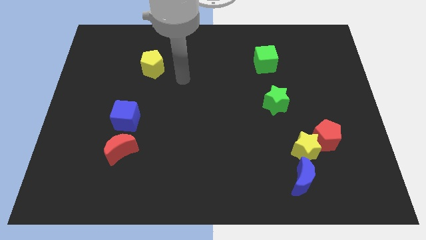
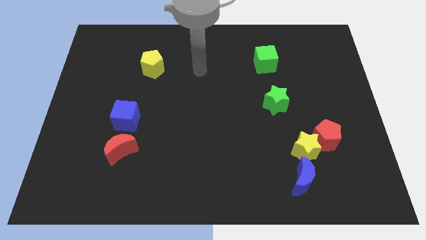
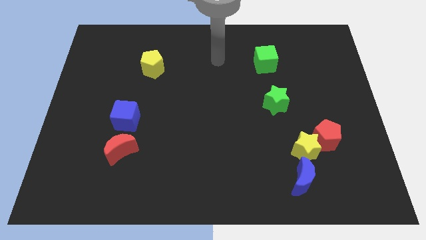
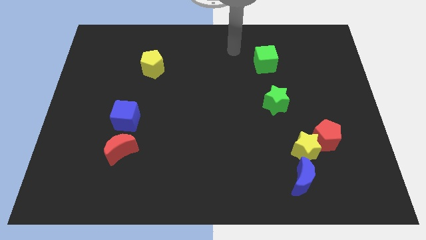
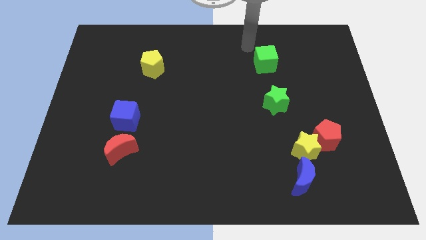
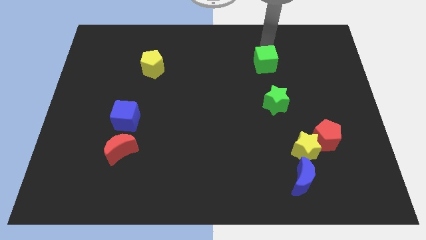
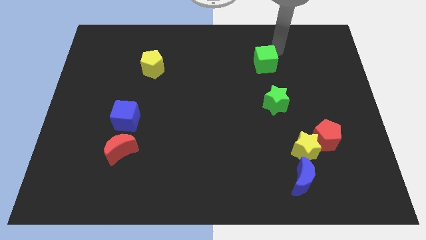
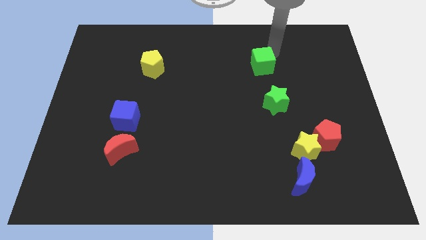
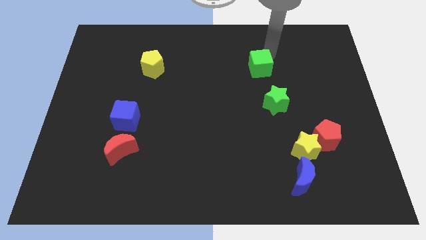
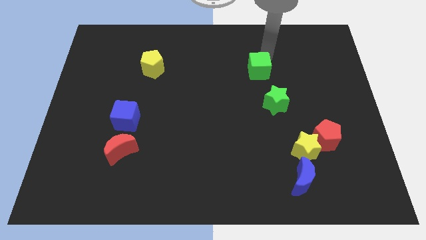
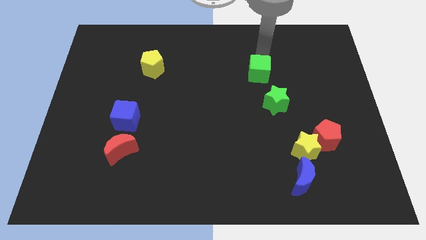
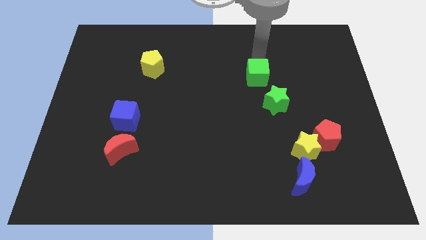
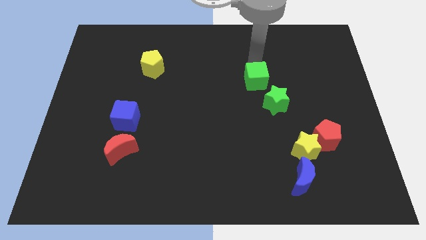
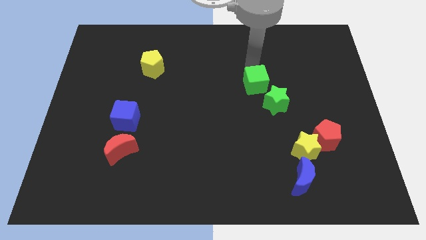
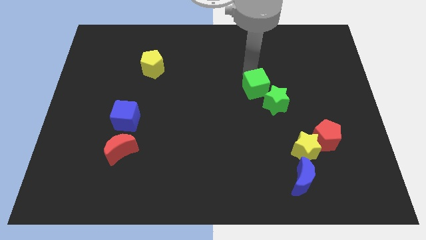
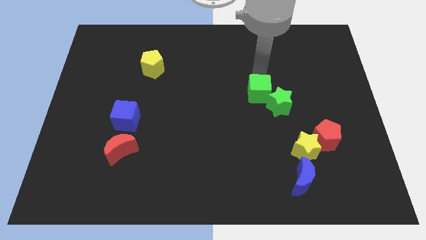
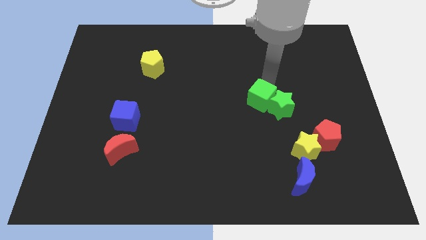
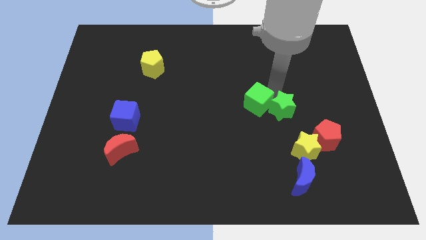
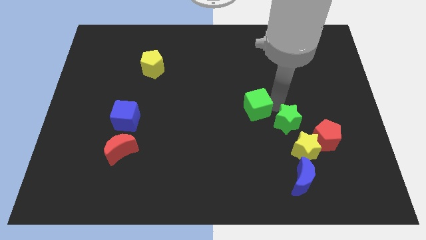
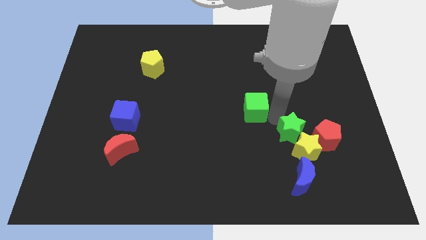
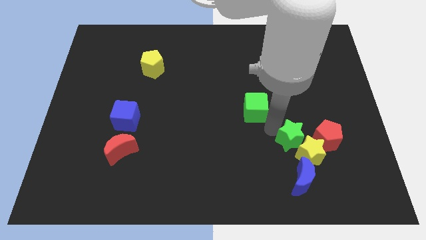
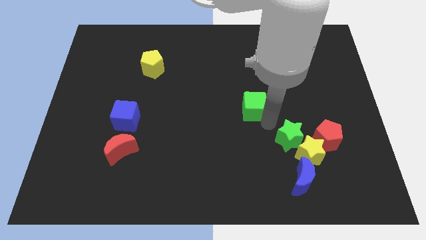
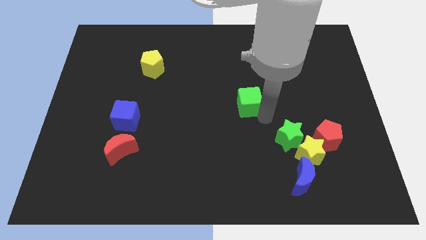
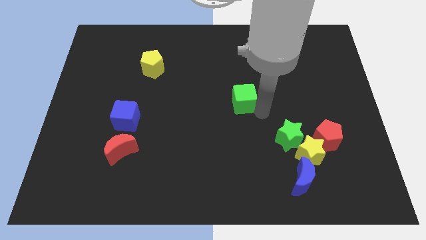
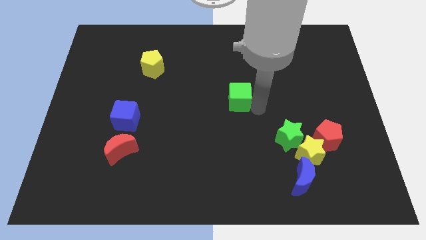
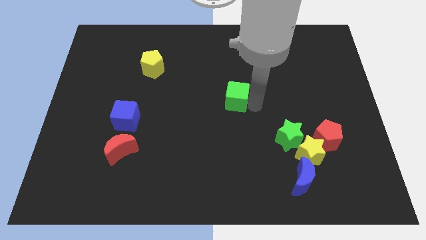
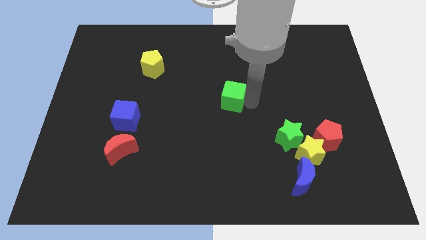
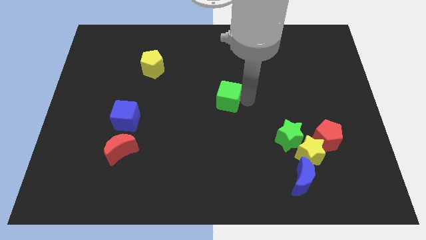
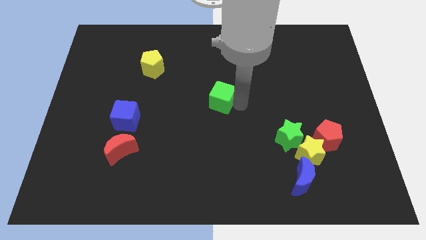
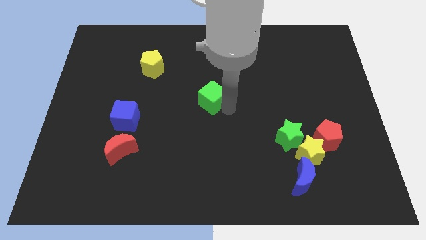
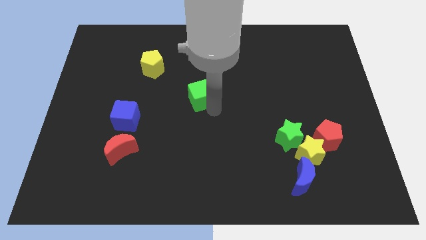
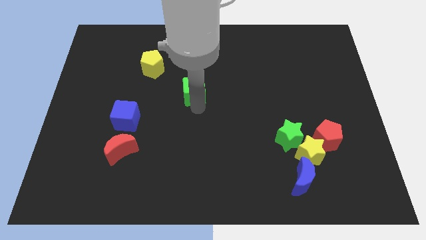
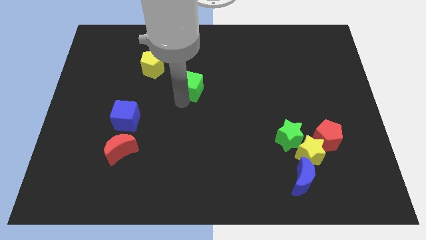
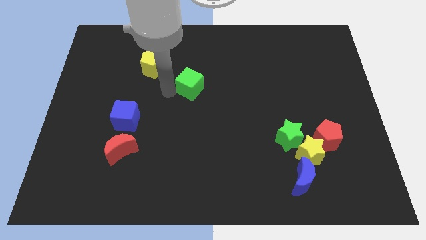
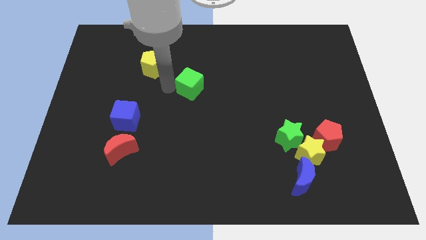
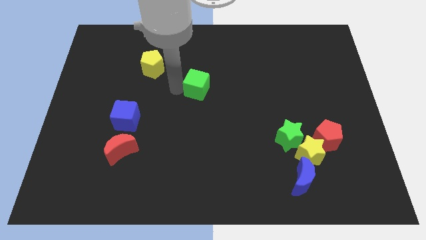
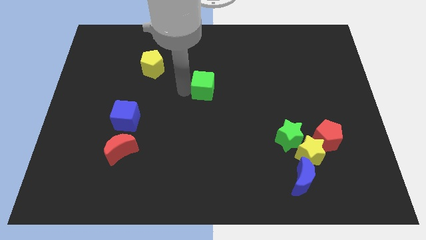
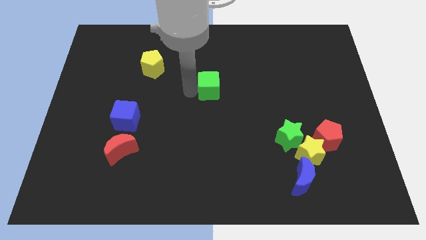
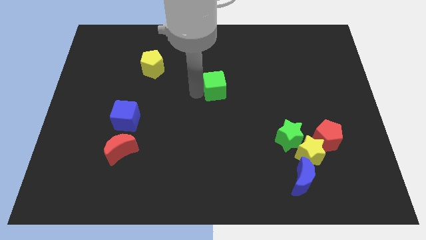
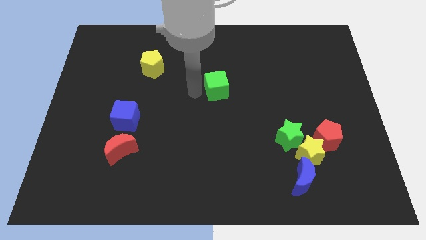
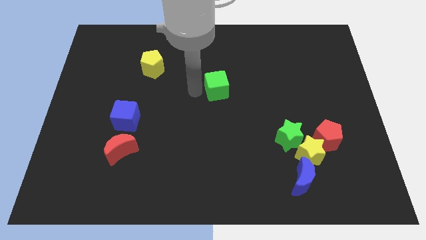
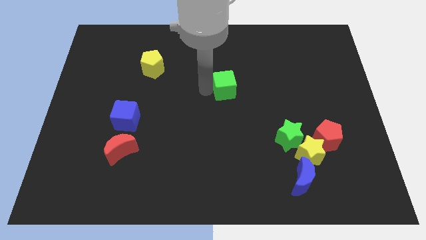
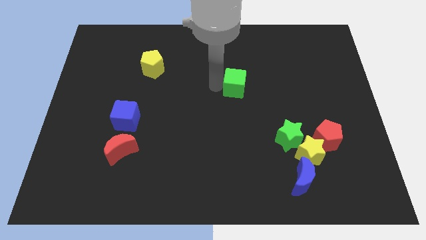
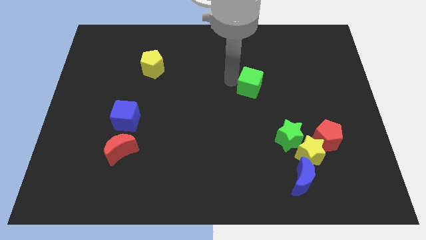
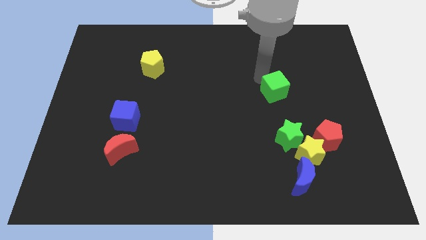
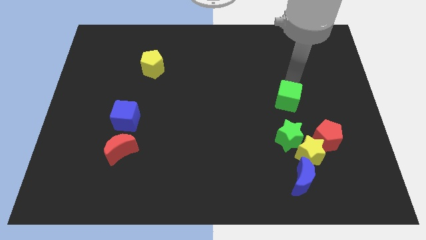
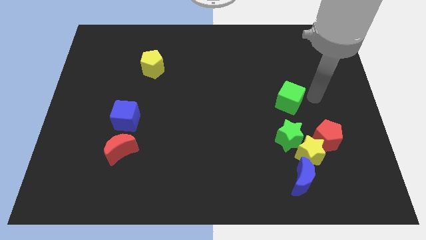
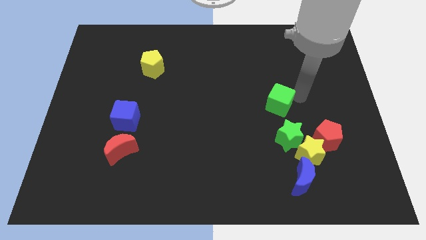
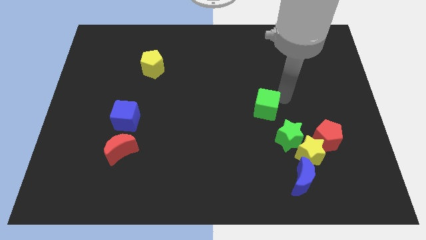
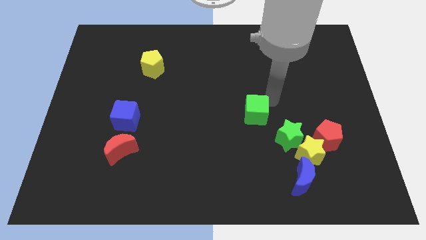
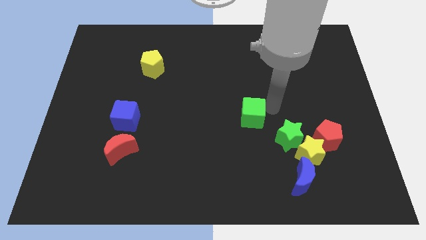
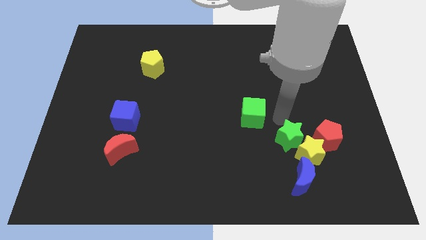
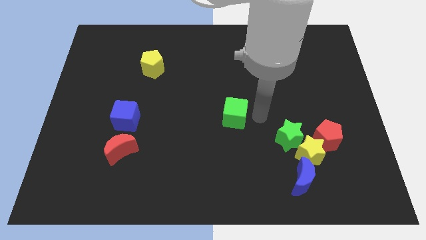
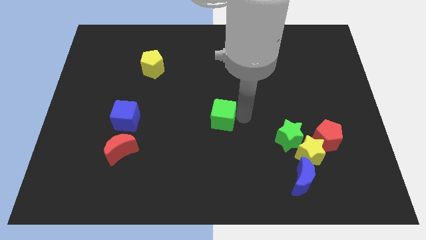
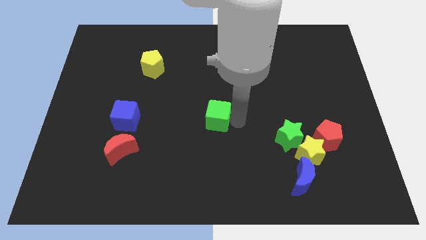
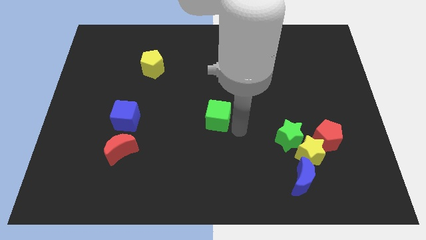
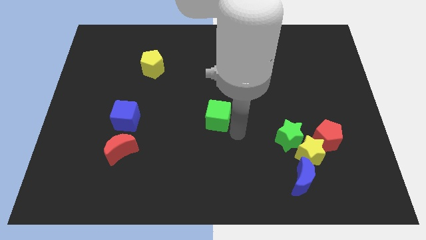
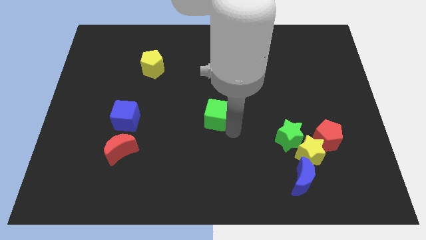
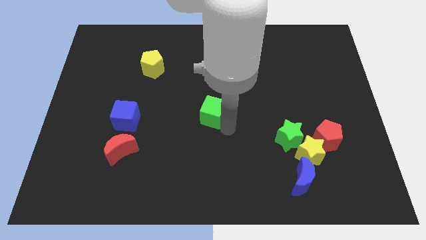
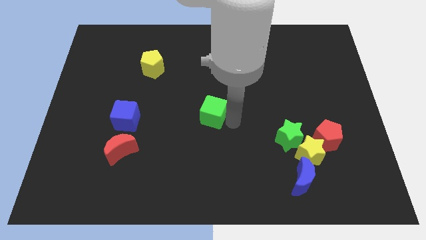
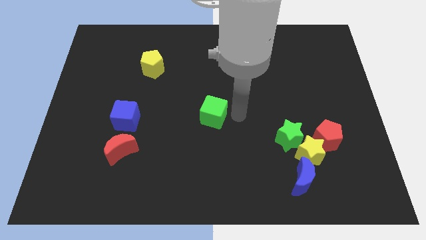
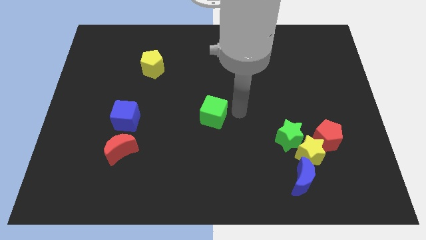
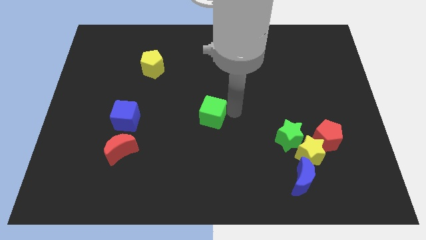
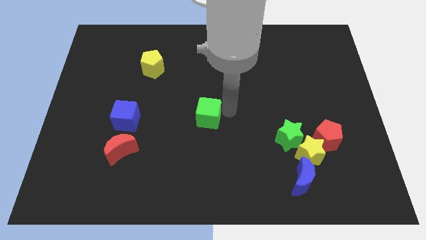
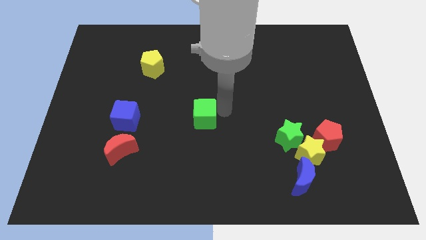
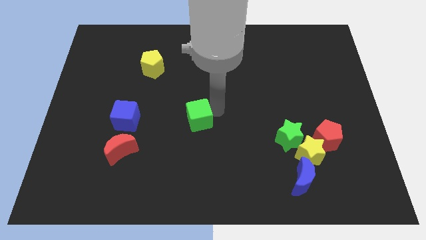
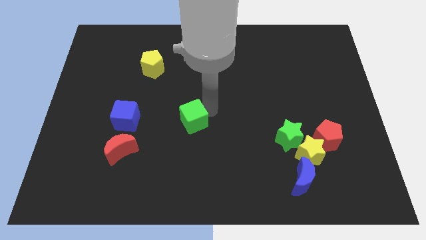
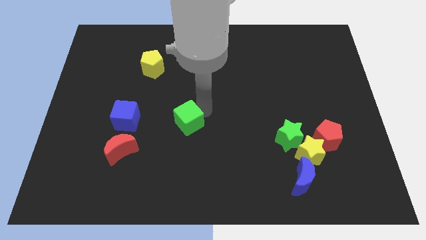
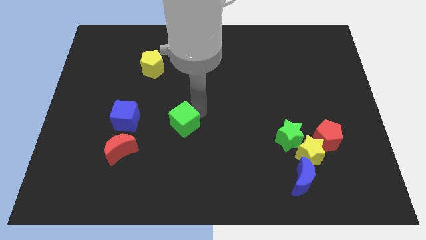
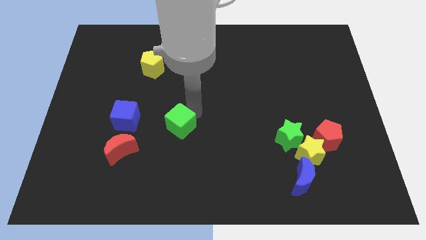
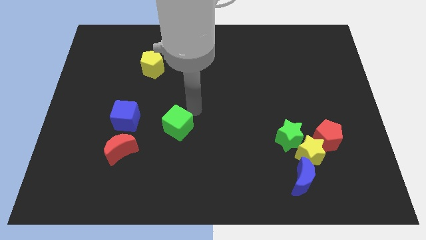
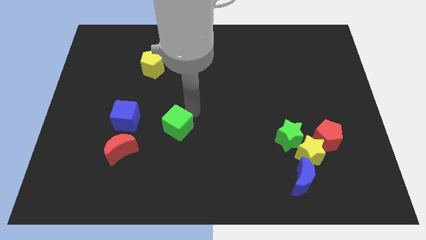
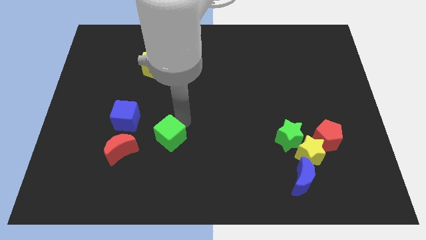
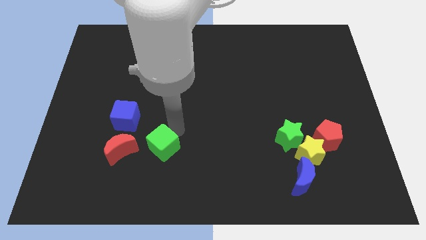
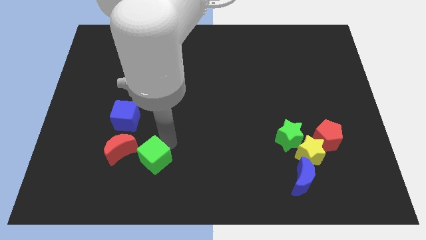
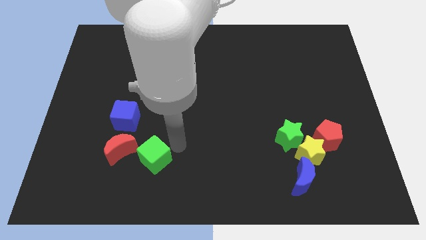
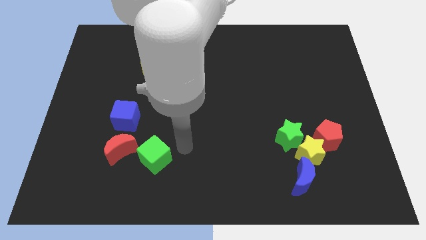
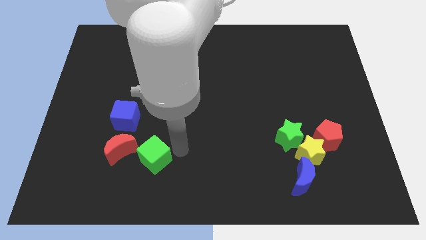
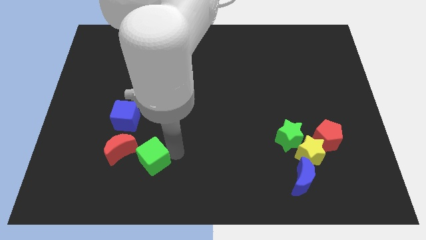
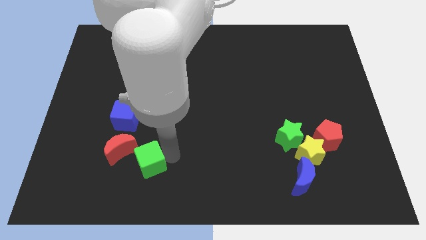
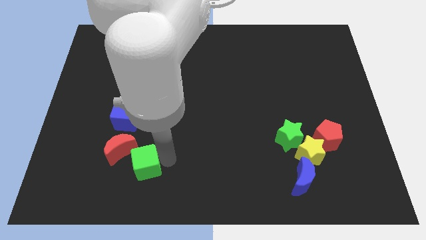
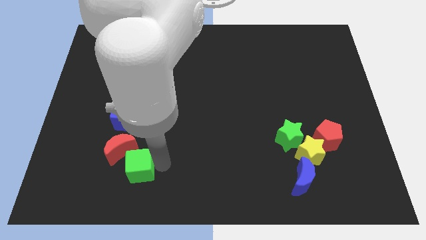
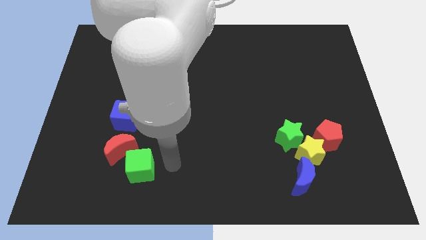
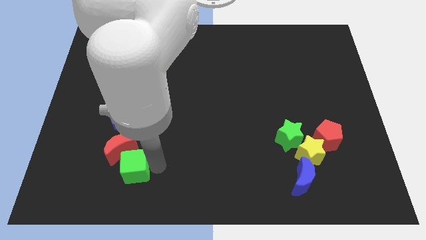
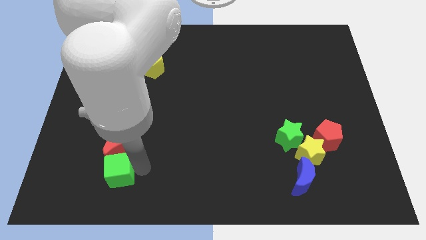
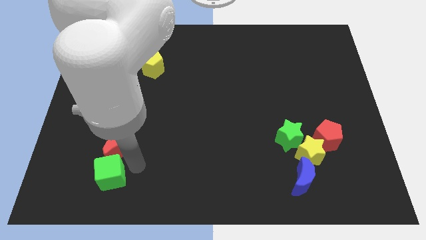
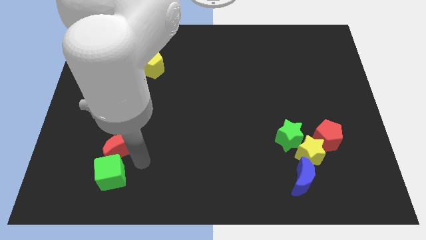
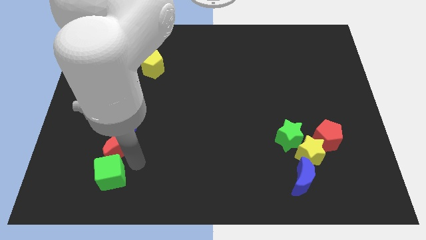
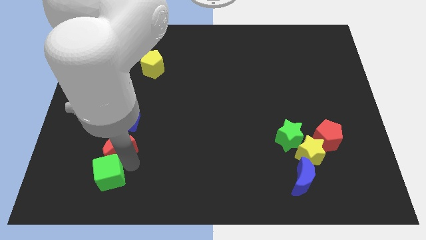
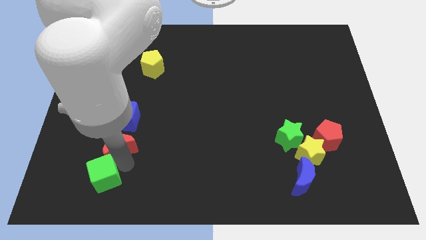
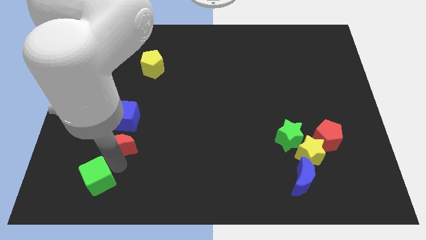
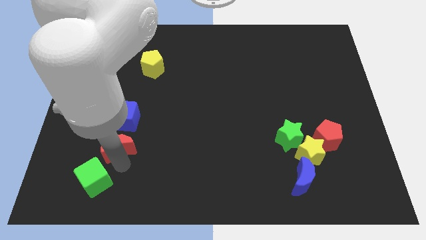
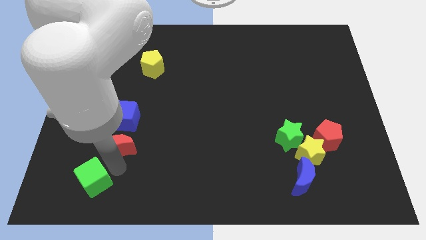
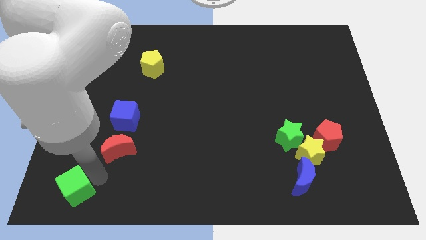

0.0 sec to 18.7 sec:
move the green cube to the bottom left of the board
